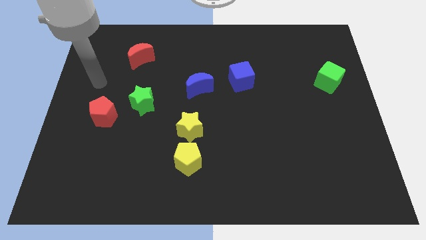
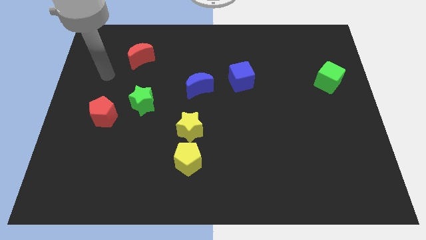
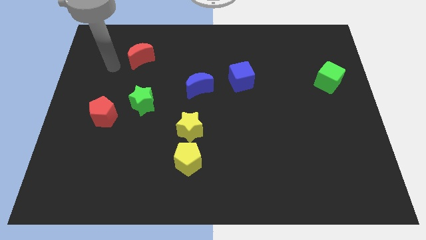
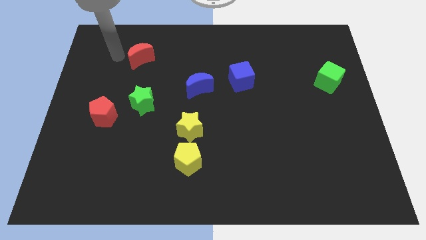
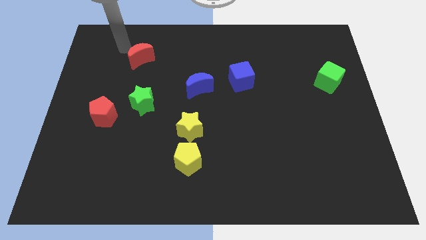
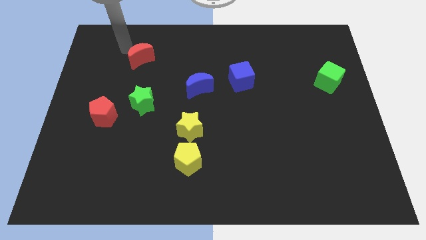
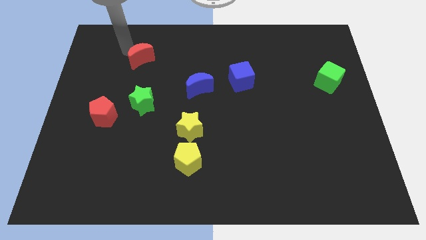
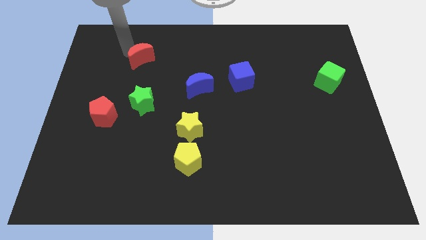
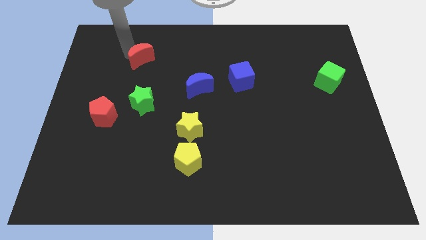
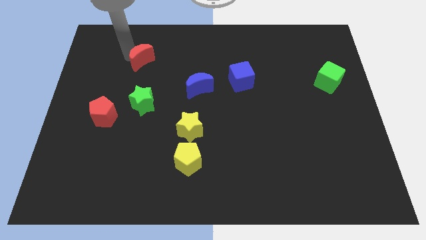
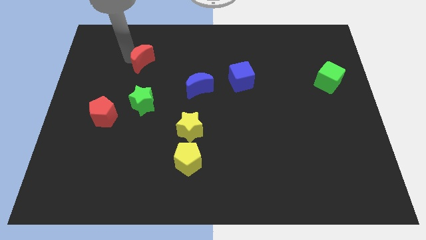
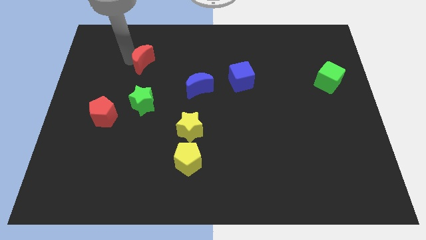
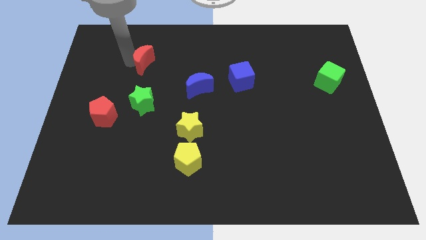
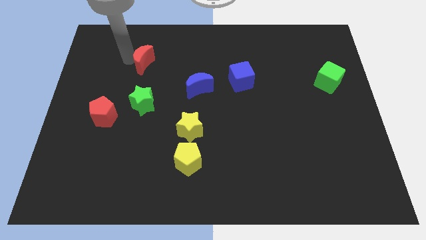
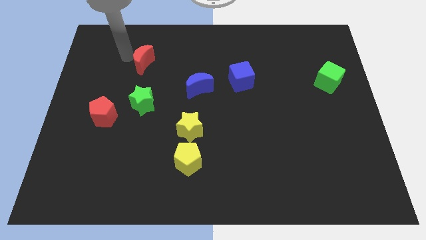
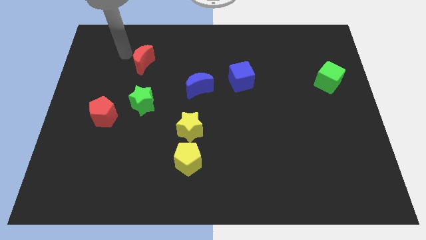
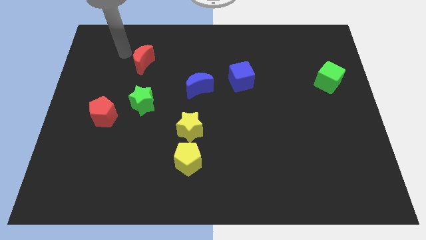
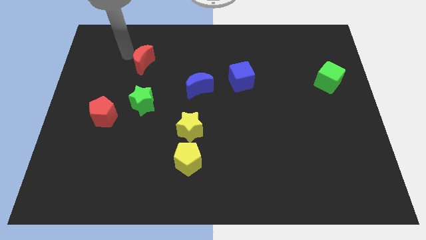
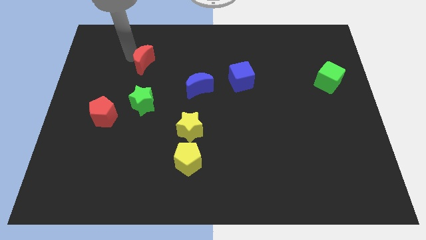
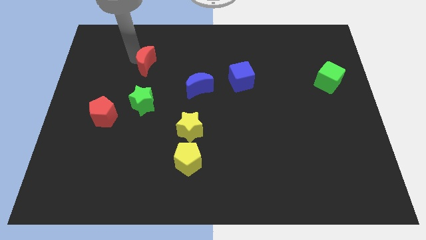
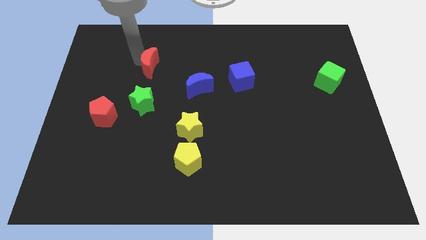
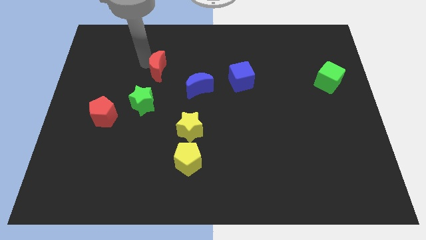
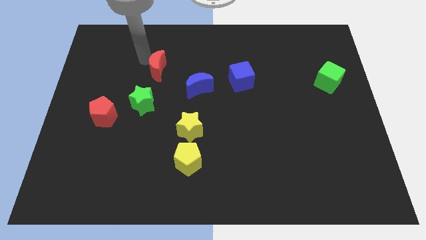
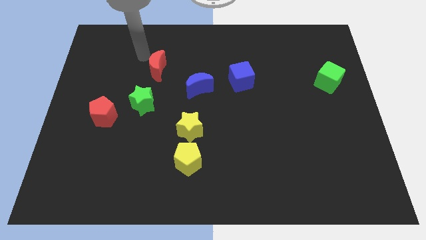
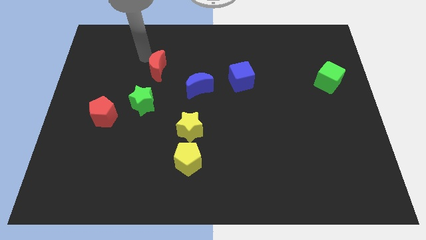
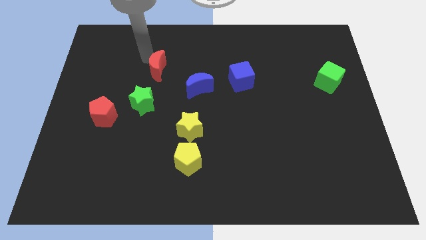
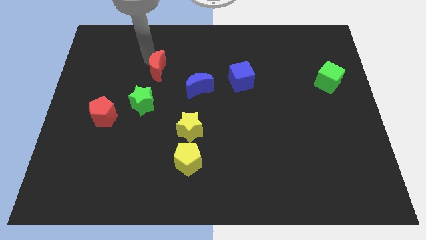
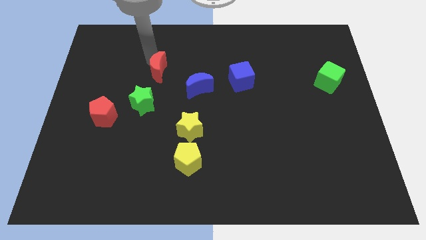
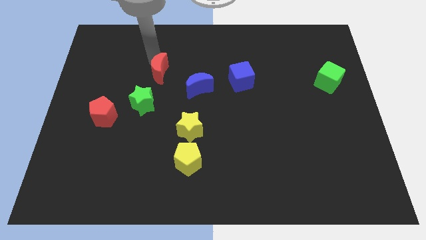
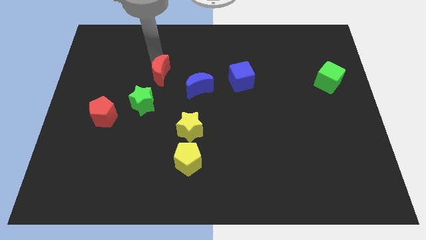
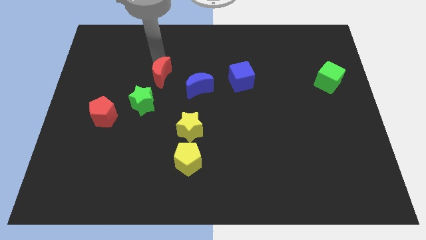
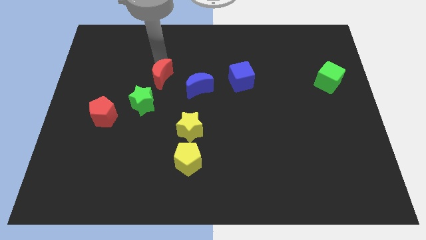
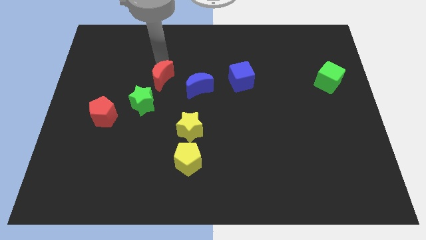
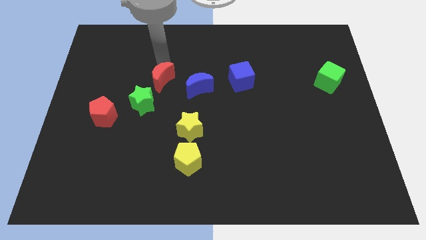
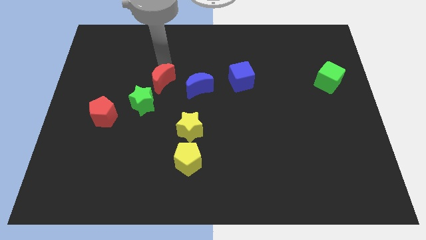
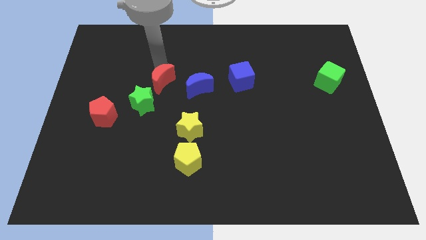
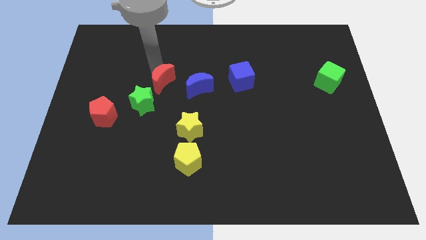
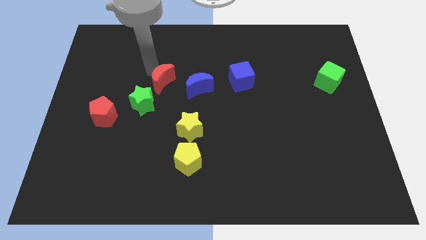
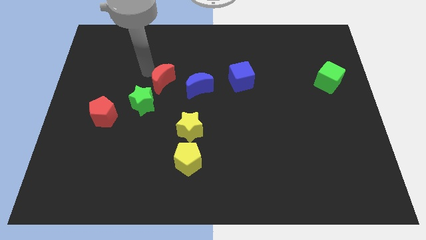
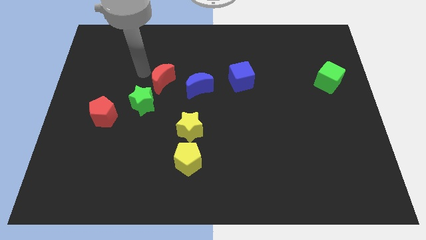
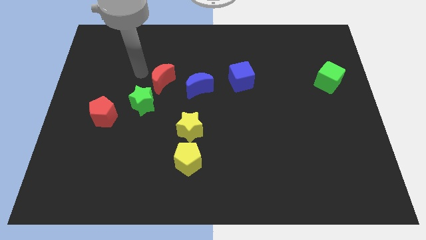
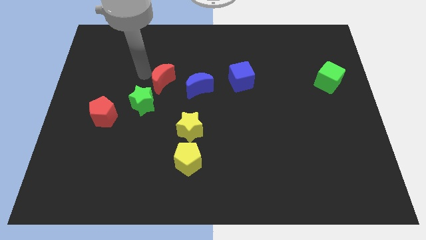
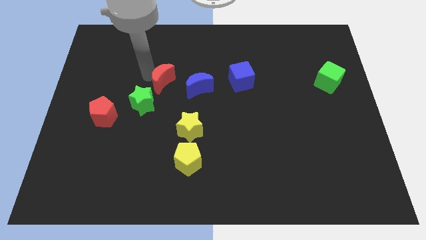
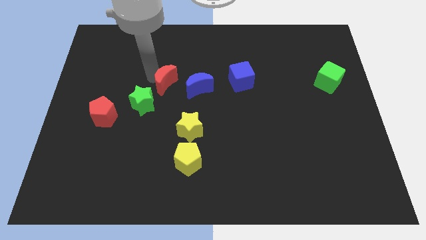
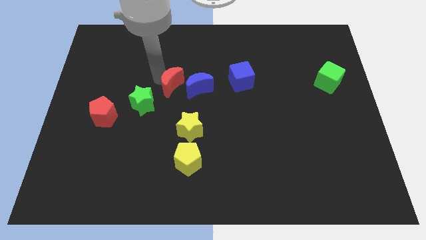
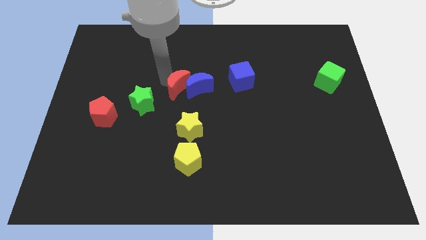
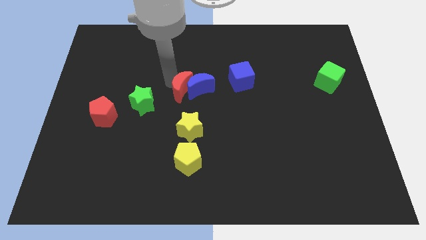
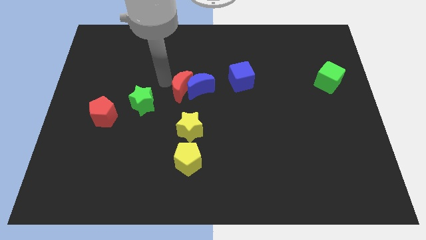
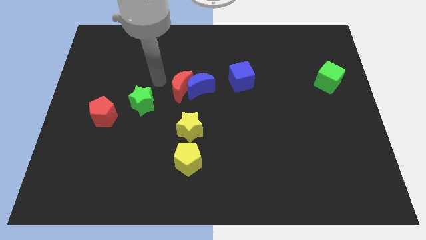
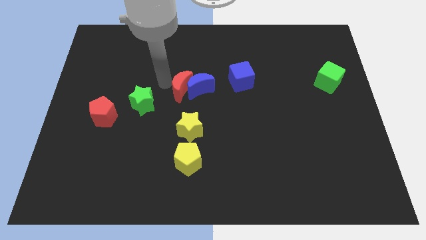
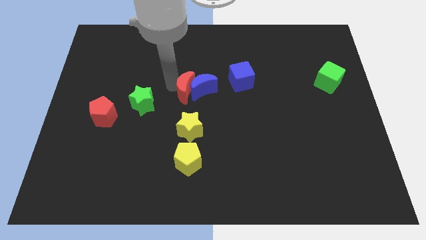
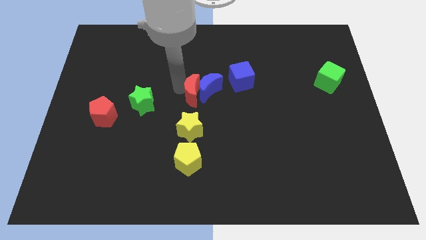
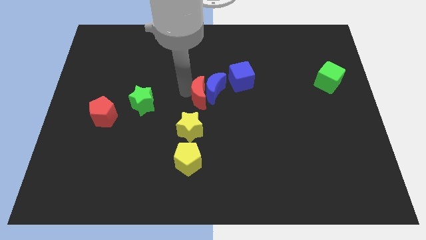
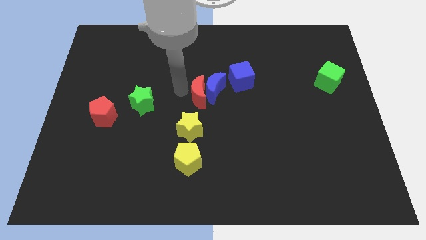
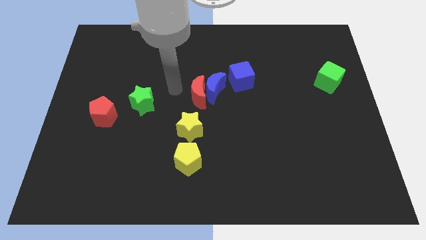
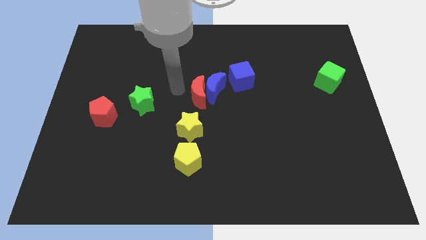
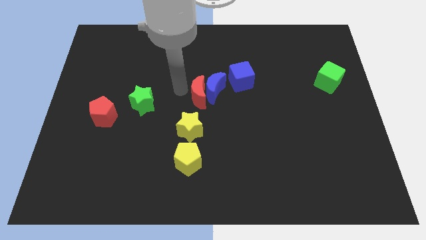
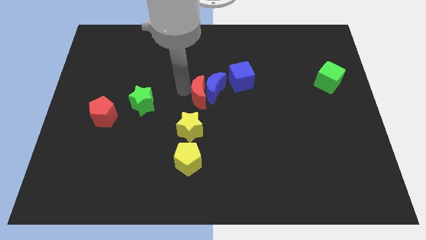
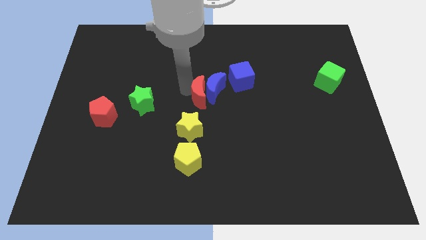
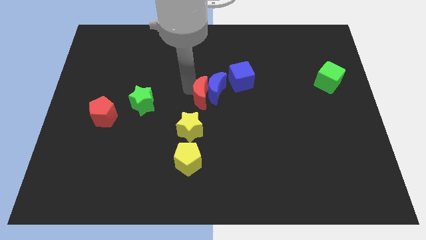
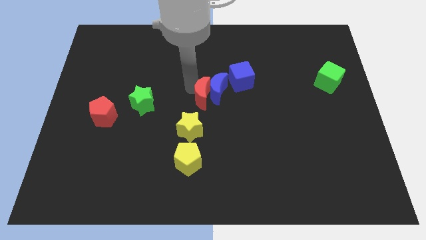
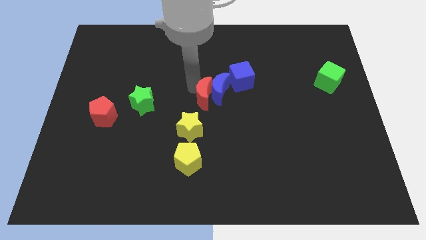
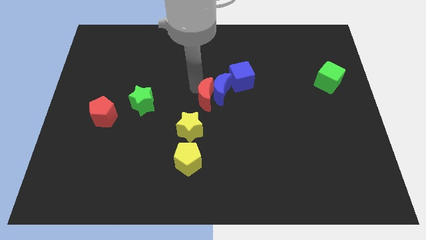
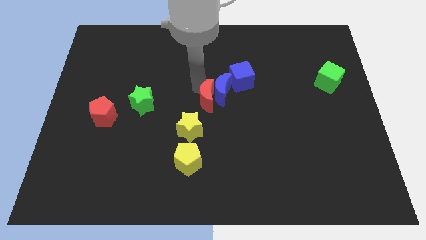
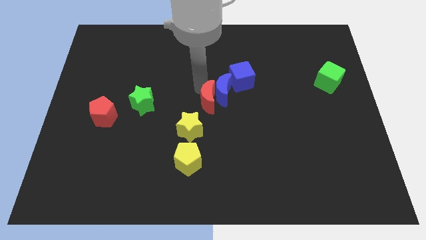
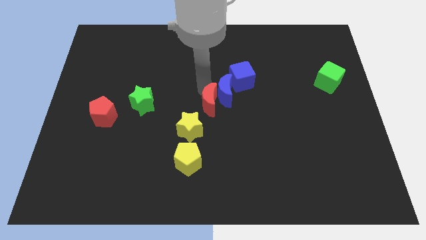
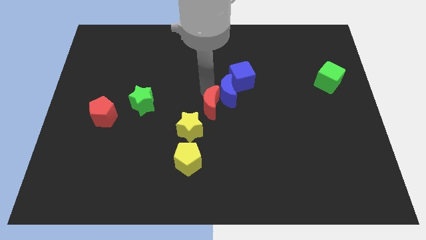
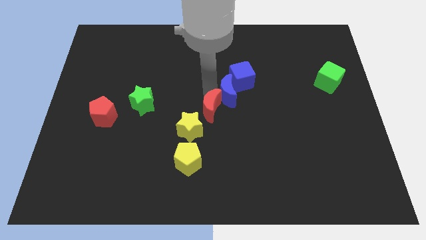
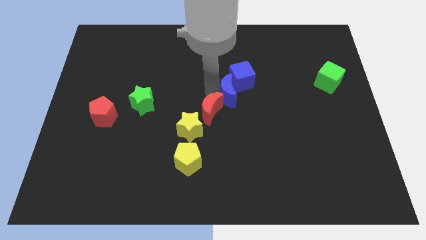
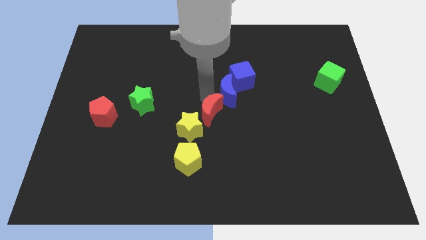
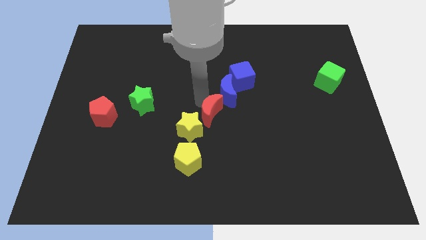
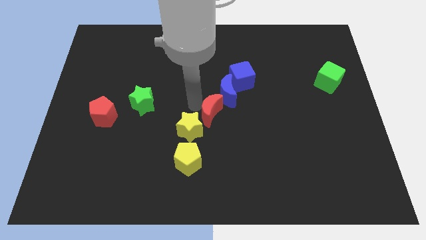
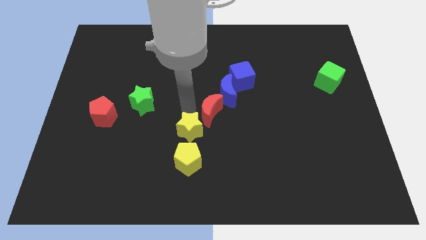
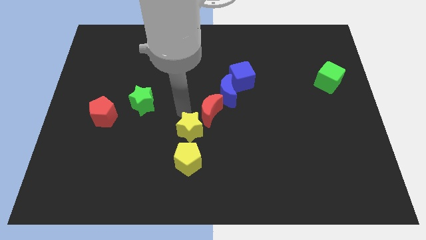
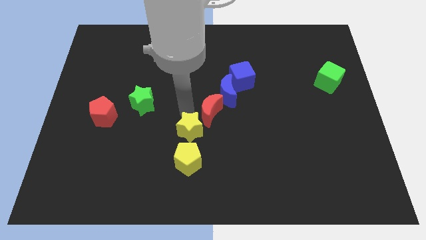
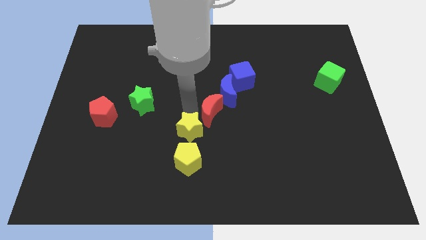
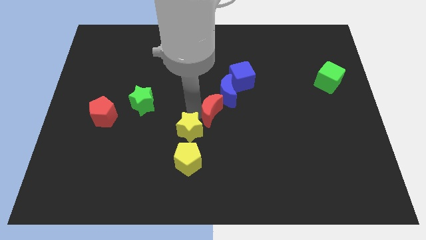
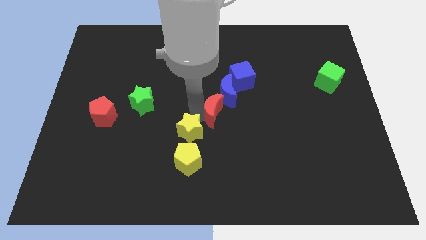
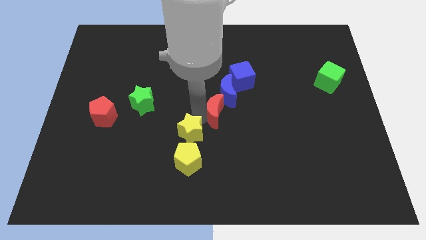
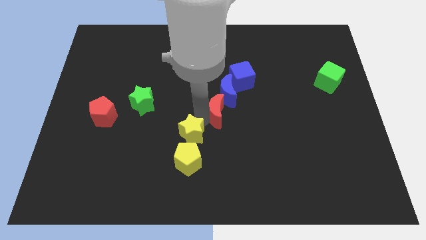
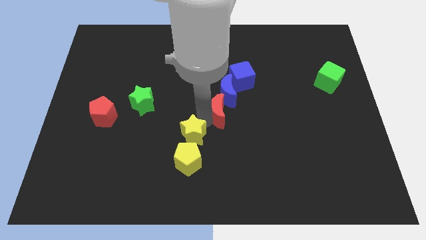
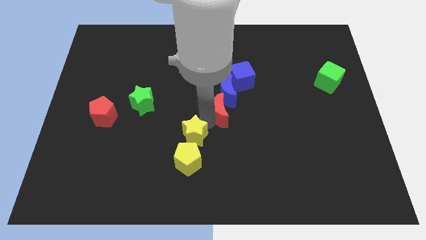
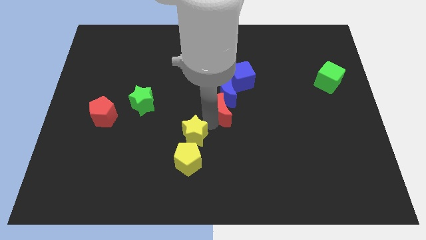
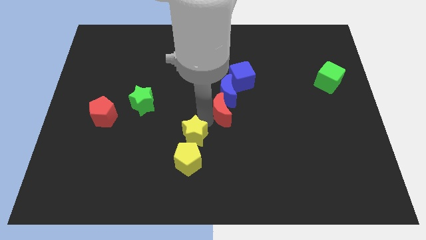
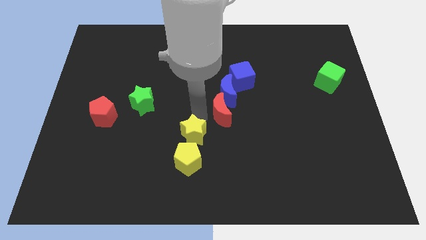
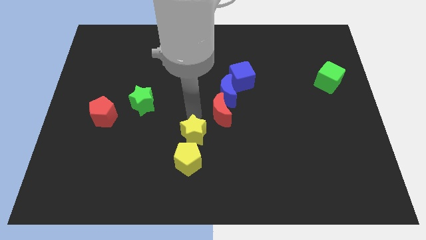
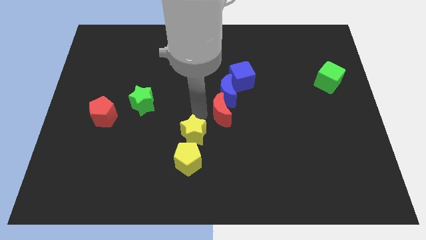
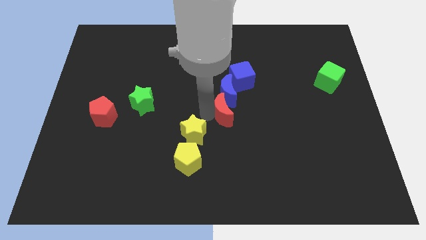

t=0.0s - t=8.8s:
put the red moon below the blue cube
